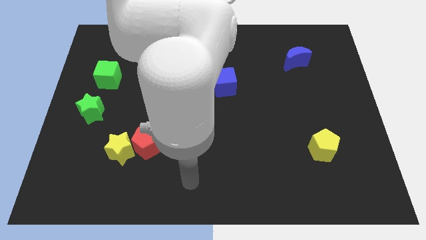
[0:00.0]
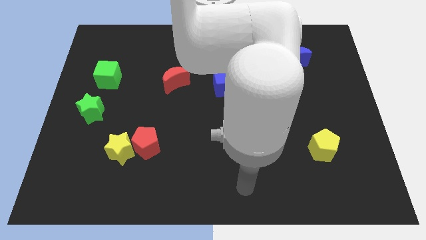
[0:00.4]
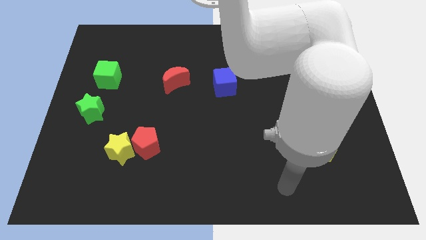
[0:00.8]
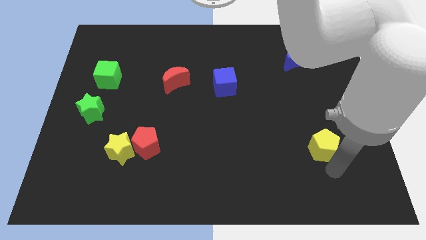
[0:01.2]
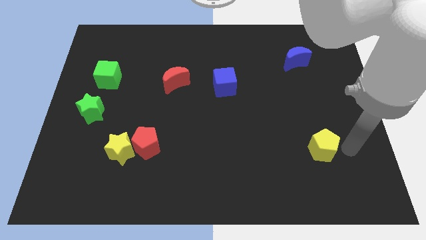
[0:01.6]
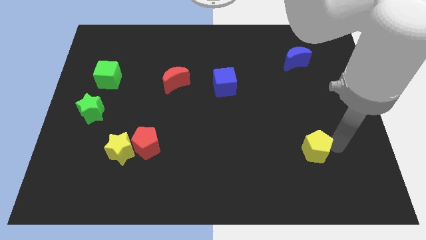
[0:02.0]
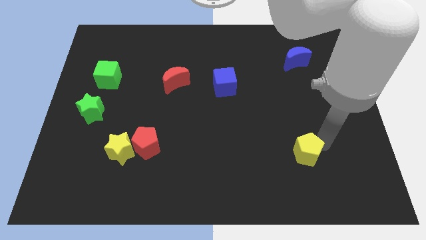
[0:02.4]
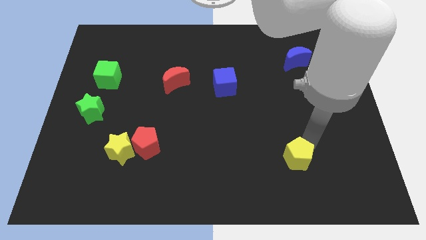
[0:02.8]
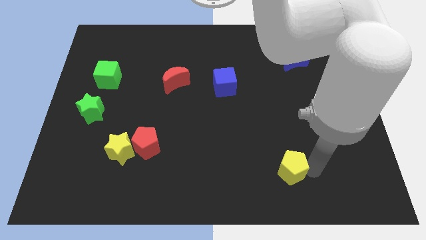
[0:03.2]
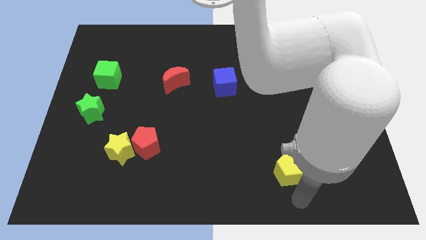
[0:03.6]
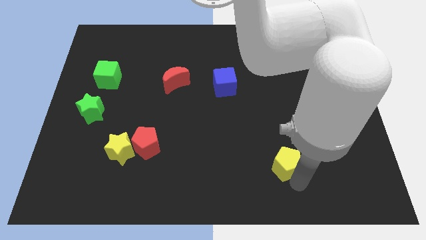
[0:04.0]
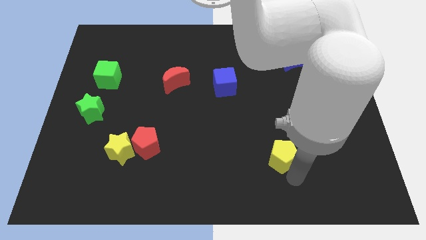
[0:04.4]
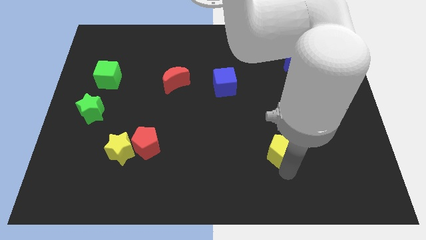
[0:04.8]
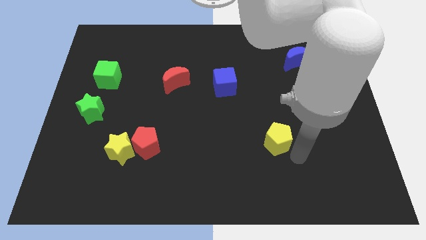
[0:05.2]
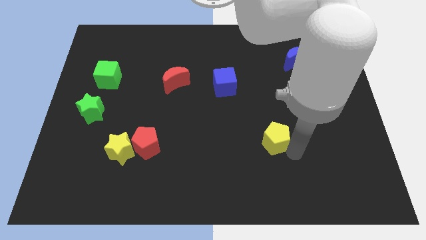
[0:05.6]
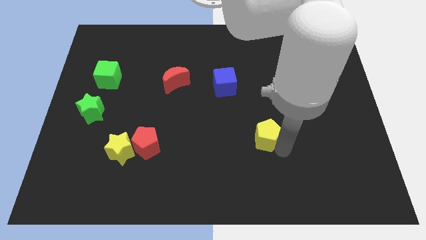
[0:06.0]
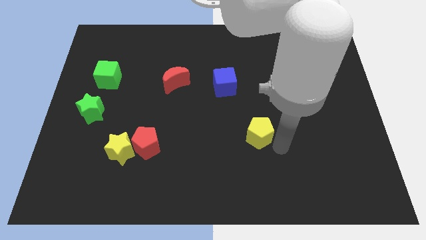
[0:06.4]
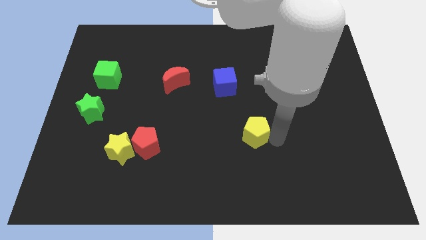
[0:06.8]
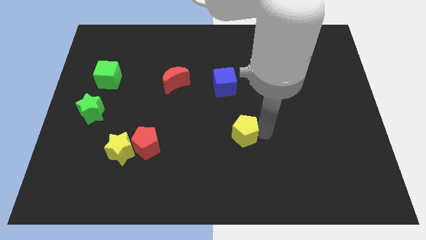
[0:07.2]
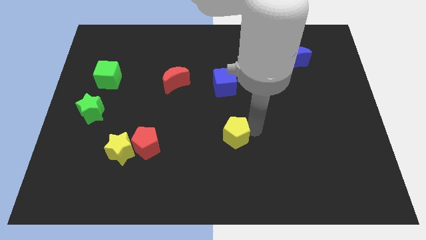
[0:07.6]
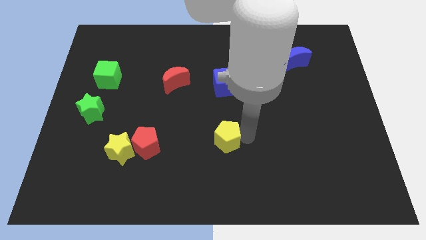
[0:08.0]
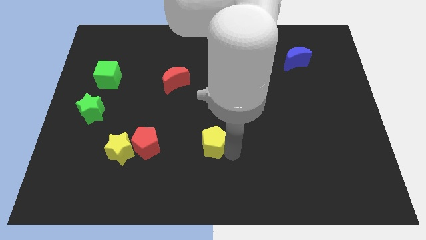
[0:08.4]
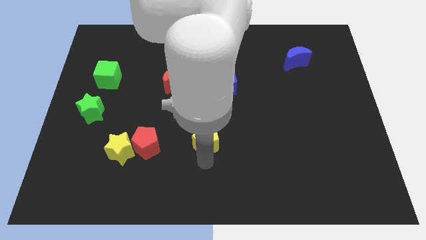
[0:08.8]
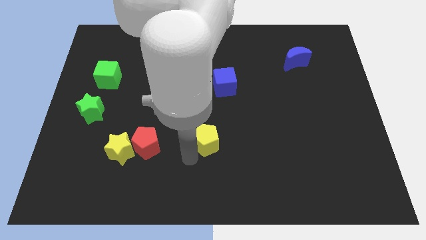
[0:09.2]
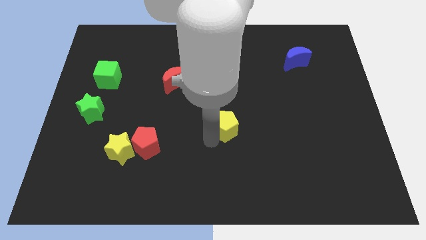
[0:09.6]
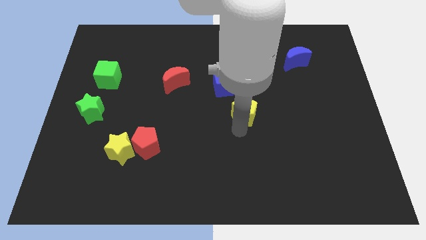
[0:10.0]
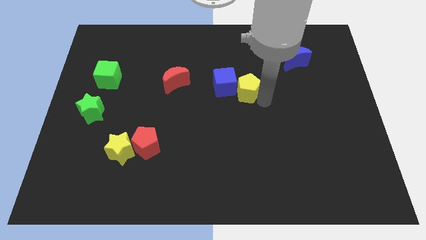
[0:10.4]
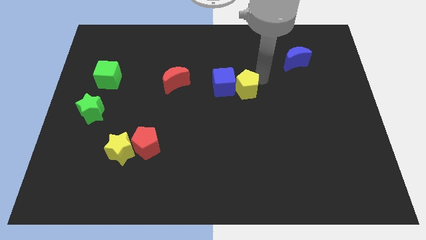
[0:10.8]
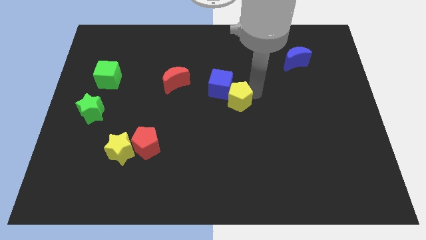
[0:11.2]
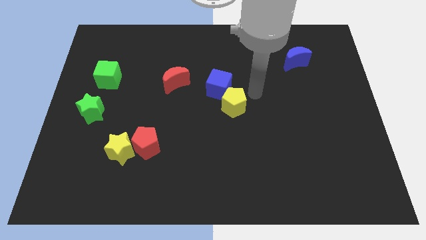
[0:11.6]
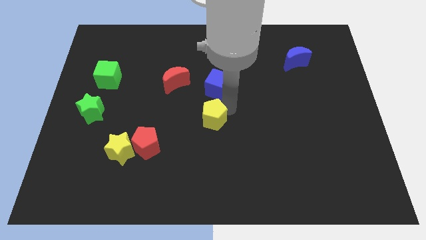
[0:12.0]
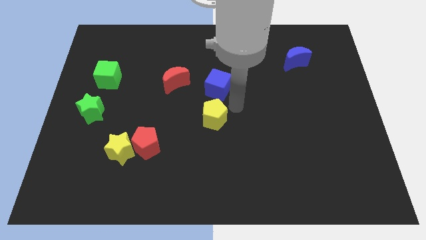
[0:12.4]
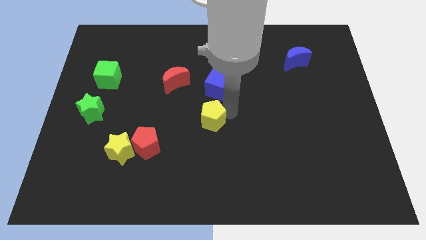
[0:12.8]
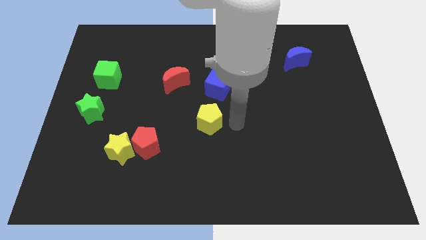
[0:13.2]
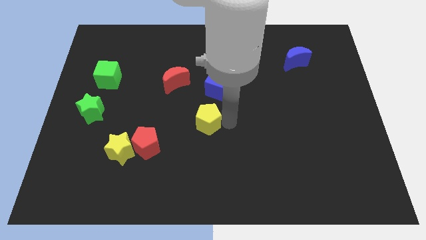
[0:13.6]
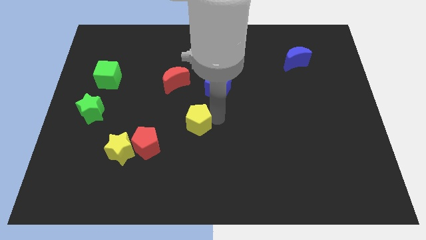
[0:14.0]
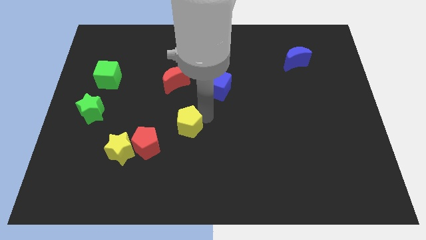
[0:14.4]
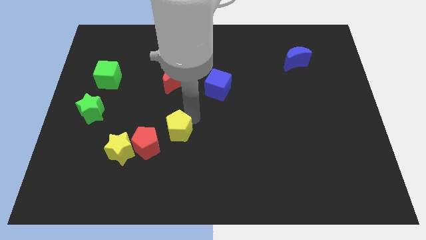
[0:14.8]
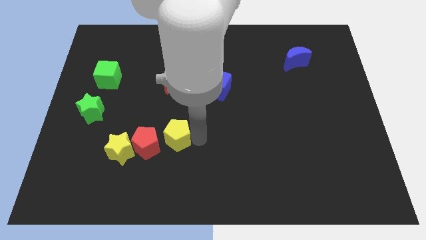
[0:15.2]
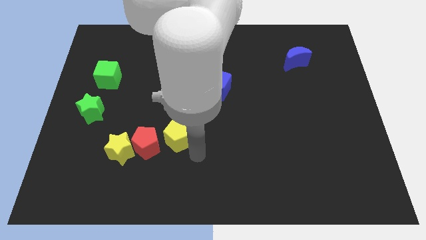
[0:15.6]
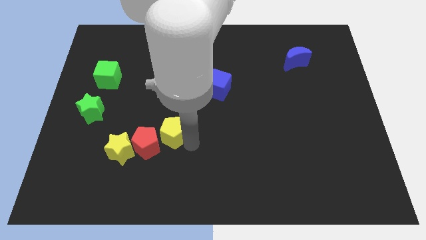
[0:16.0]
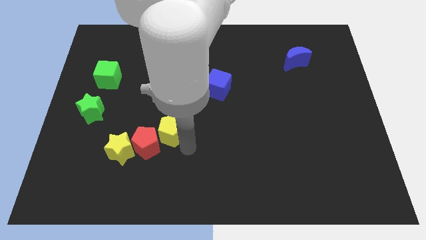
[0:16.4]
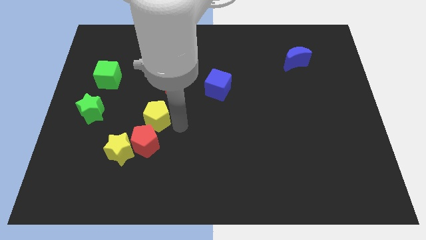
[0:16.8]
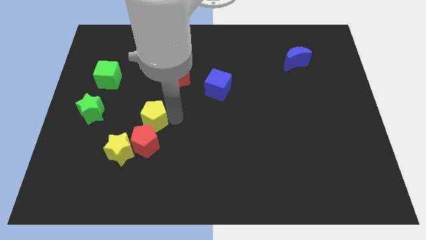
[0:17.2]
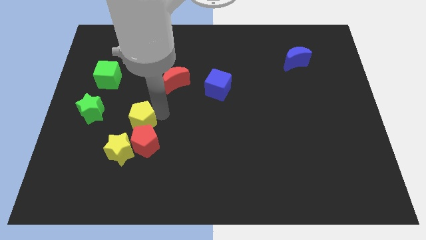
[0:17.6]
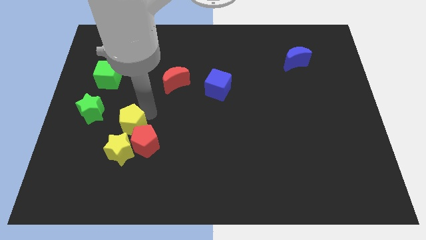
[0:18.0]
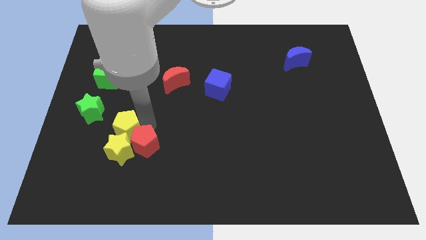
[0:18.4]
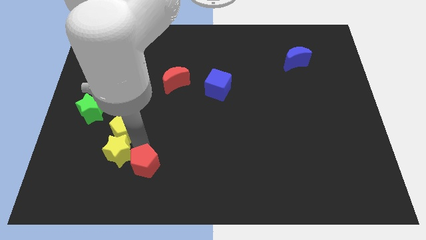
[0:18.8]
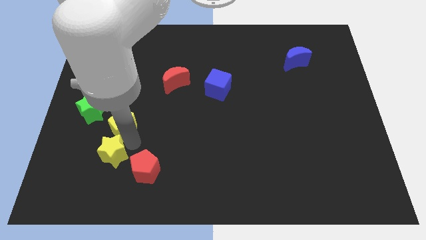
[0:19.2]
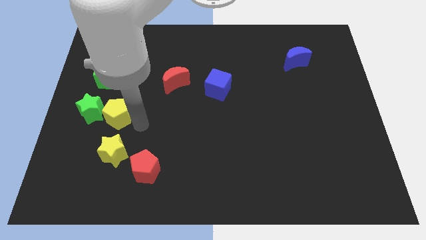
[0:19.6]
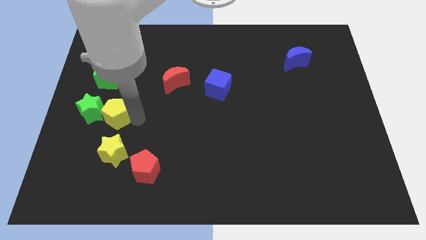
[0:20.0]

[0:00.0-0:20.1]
move the yellow pentagon towards the green star

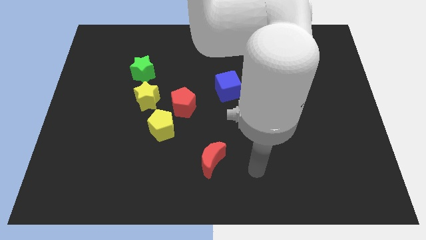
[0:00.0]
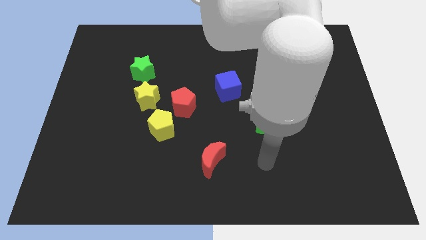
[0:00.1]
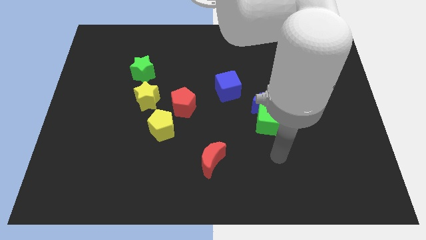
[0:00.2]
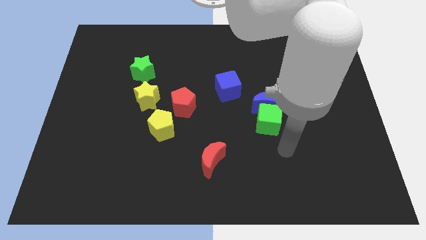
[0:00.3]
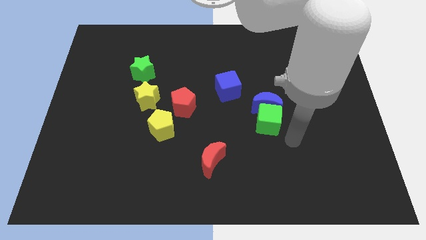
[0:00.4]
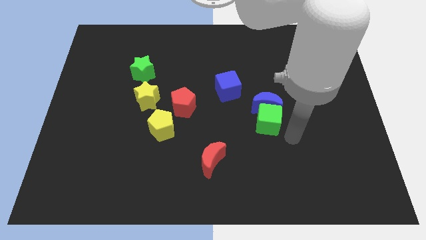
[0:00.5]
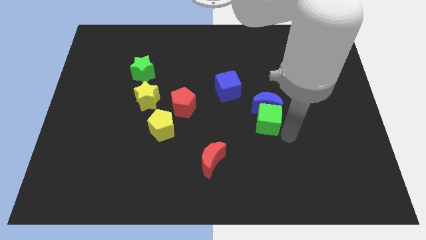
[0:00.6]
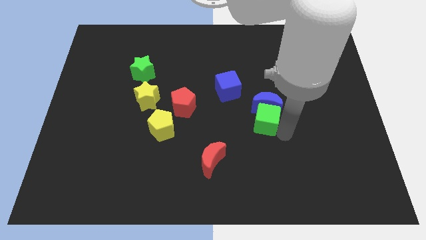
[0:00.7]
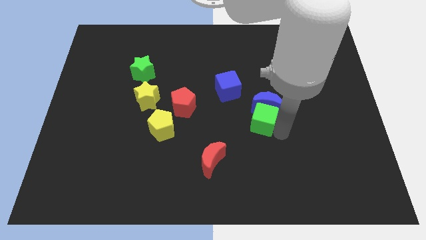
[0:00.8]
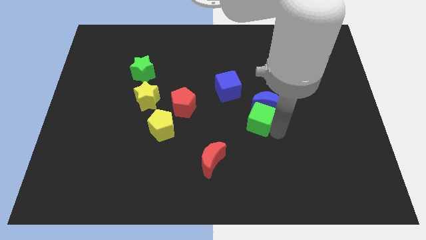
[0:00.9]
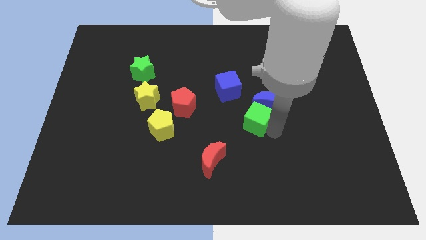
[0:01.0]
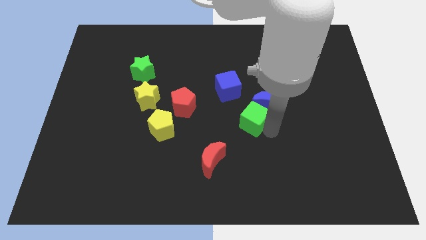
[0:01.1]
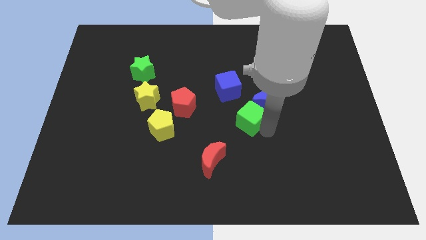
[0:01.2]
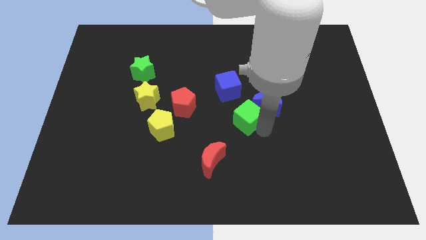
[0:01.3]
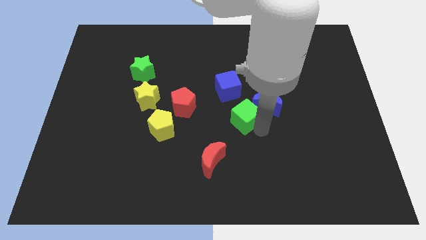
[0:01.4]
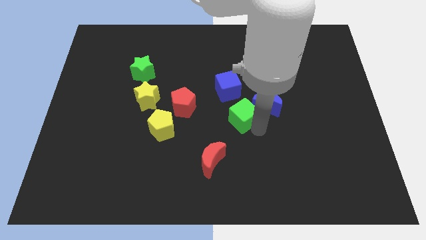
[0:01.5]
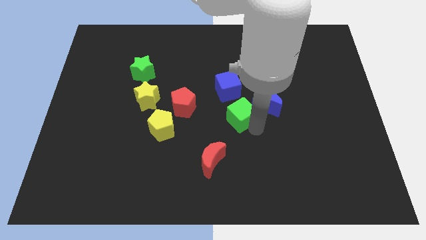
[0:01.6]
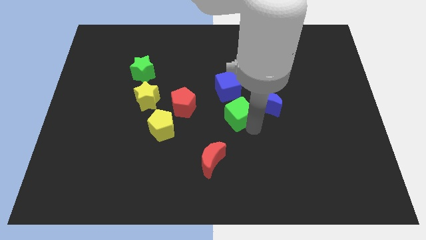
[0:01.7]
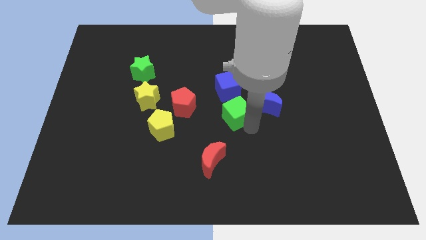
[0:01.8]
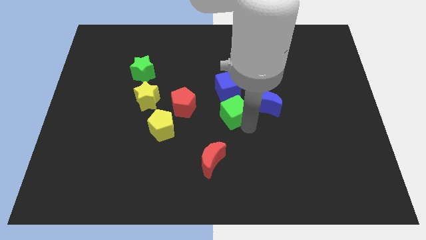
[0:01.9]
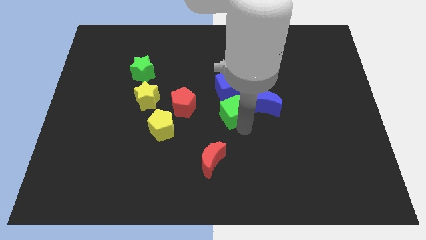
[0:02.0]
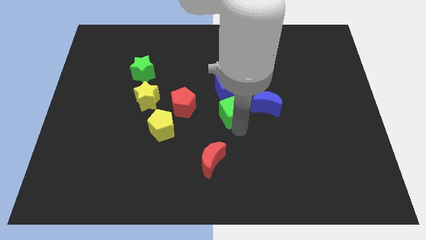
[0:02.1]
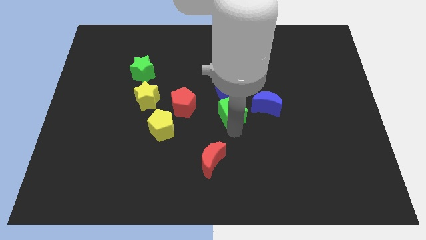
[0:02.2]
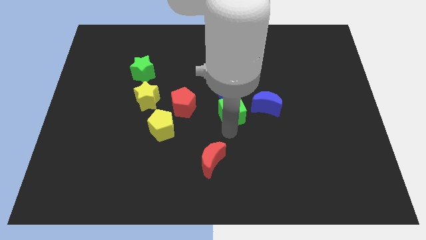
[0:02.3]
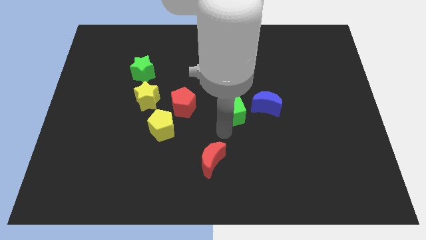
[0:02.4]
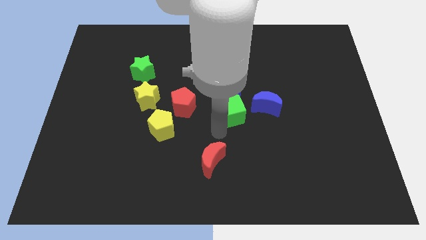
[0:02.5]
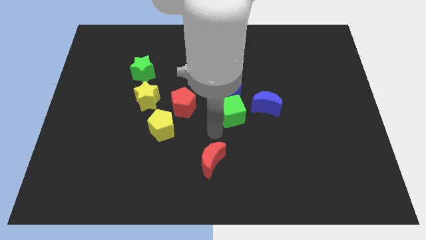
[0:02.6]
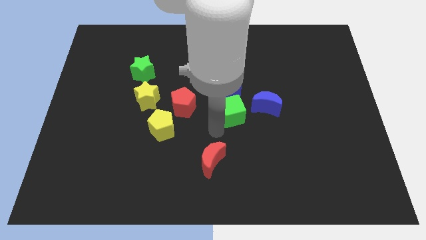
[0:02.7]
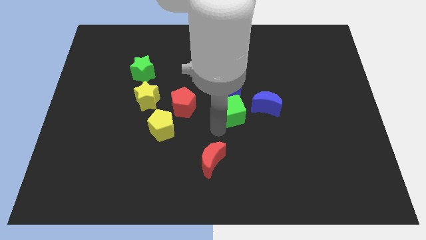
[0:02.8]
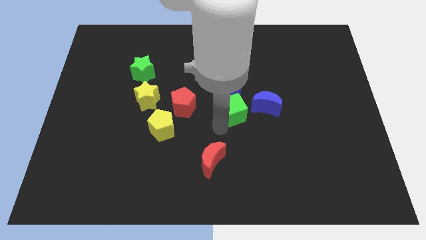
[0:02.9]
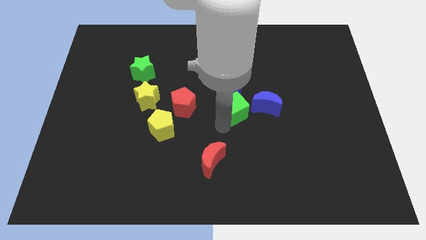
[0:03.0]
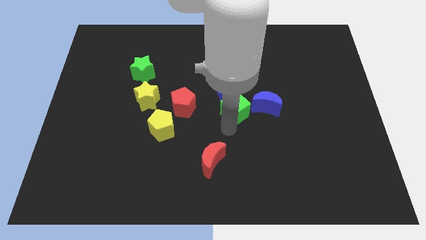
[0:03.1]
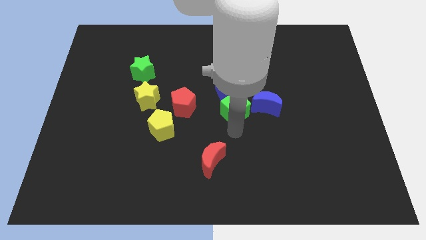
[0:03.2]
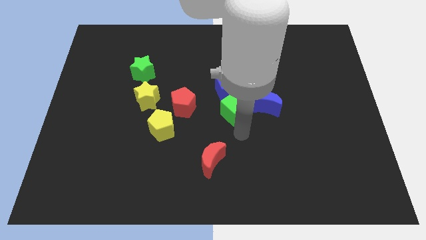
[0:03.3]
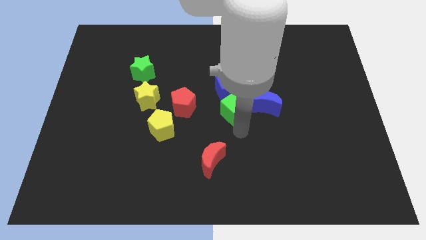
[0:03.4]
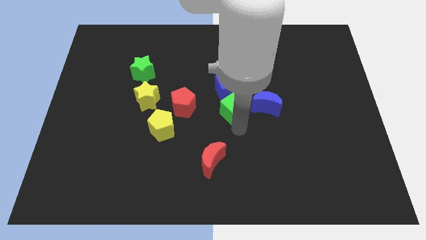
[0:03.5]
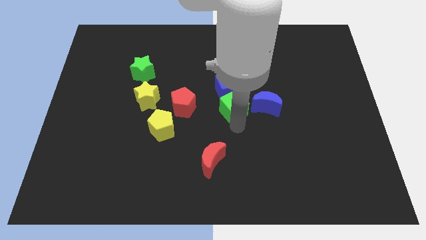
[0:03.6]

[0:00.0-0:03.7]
push the green cube to the blue cube
